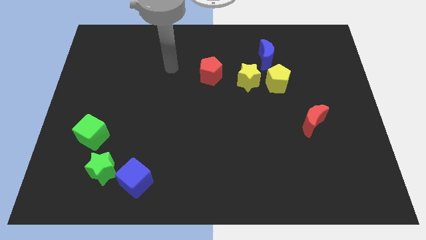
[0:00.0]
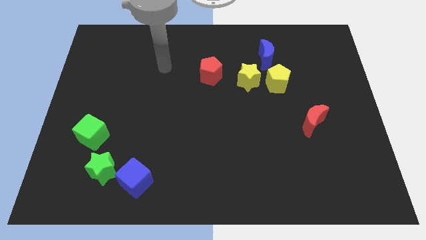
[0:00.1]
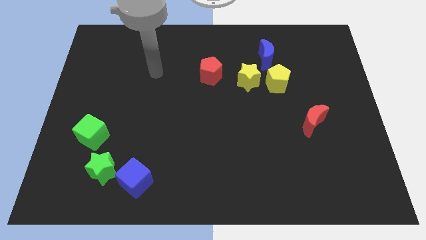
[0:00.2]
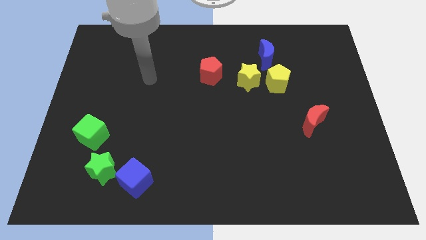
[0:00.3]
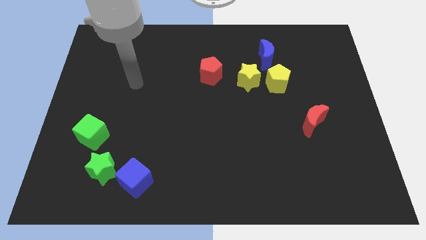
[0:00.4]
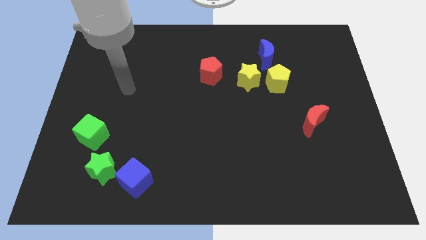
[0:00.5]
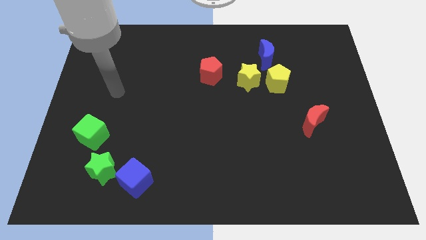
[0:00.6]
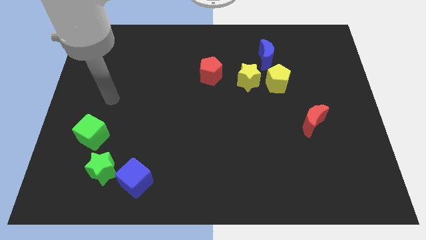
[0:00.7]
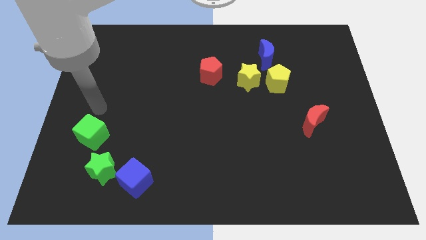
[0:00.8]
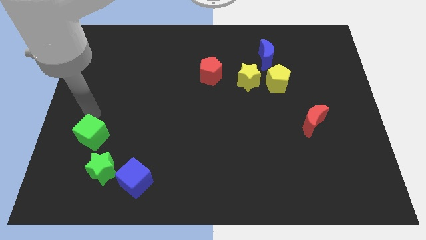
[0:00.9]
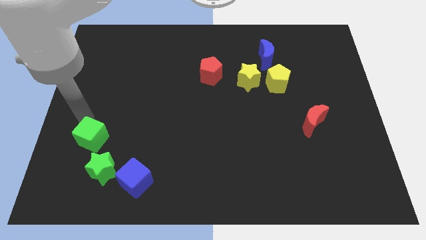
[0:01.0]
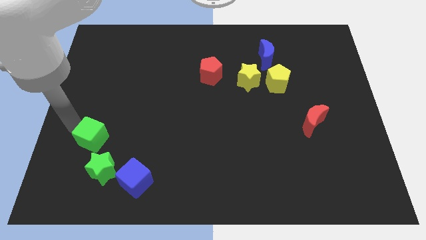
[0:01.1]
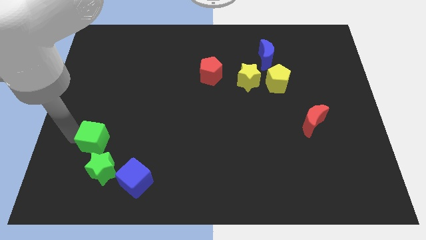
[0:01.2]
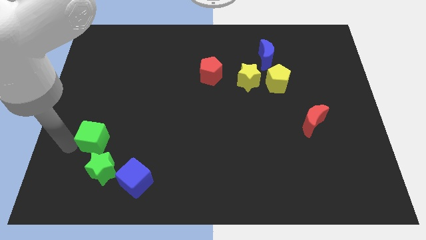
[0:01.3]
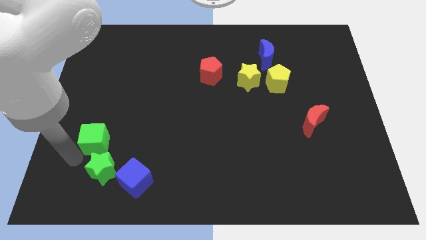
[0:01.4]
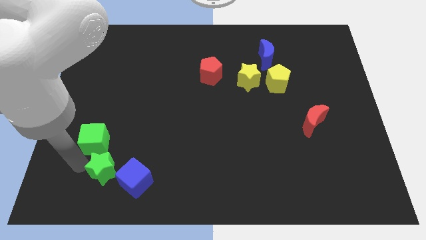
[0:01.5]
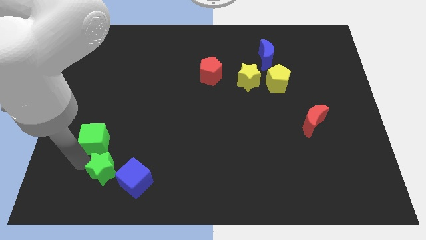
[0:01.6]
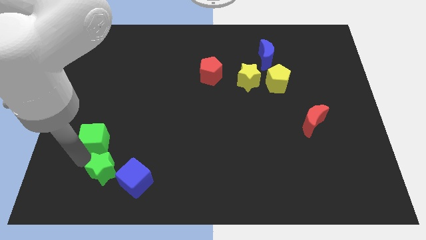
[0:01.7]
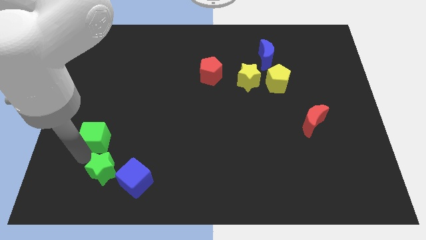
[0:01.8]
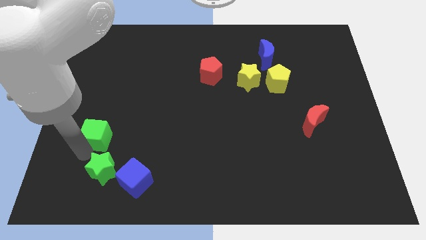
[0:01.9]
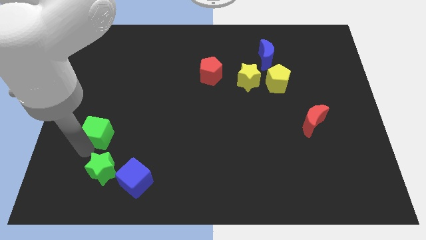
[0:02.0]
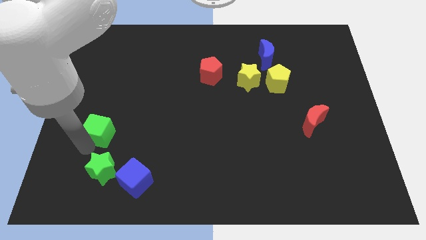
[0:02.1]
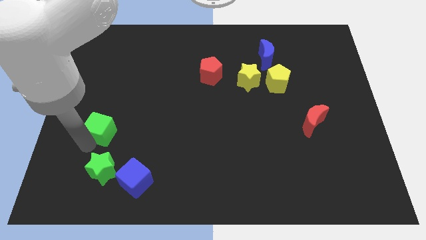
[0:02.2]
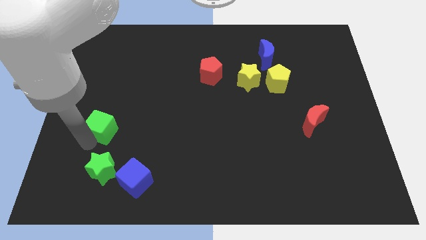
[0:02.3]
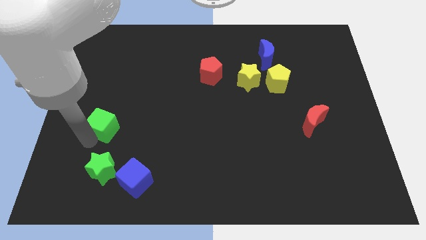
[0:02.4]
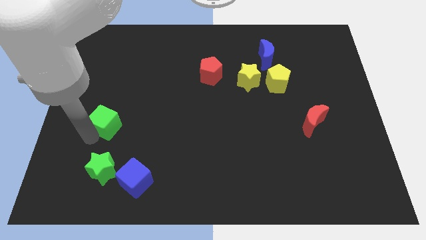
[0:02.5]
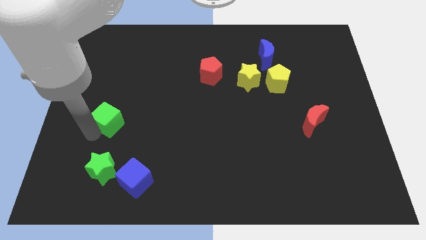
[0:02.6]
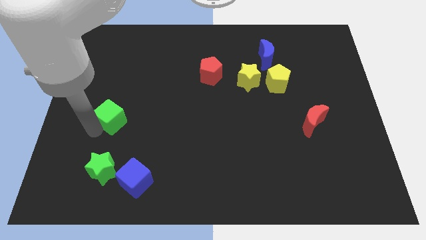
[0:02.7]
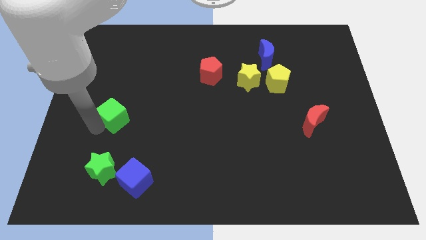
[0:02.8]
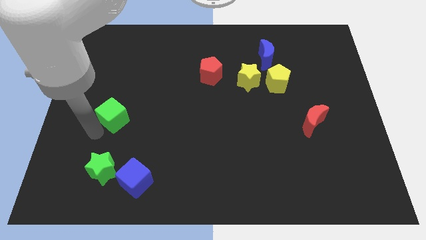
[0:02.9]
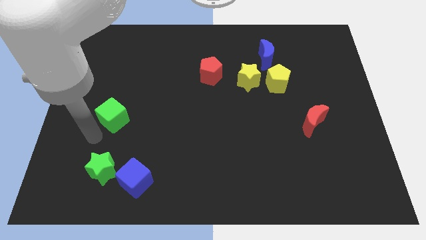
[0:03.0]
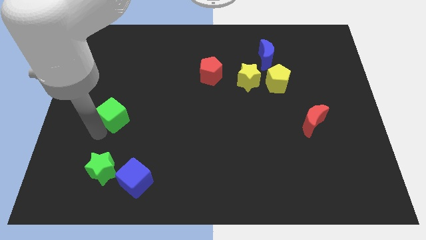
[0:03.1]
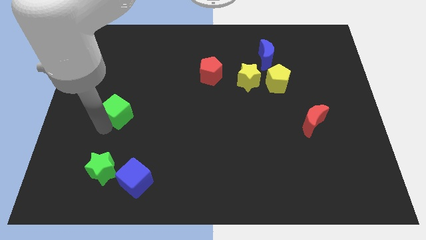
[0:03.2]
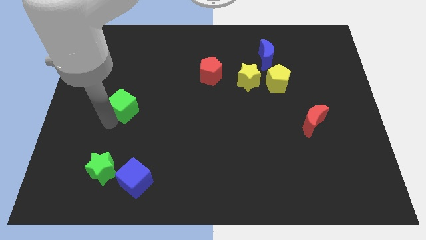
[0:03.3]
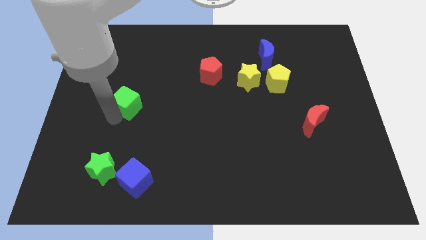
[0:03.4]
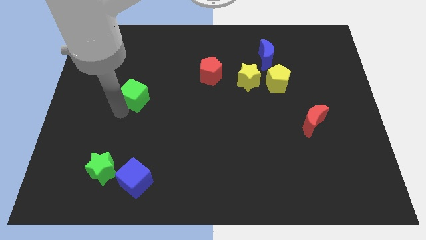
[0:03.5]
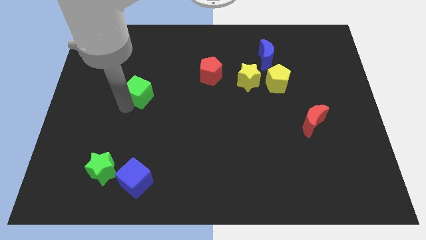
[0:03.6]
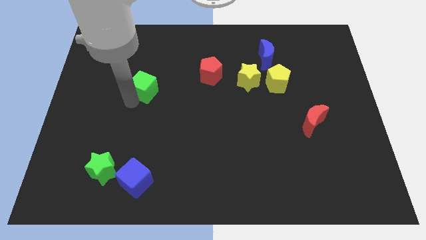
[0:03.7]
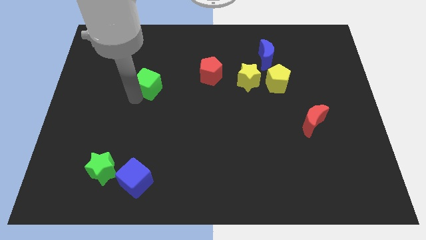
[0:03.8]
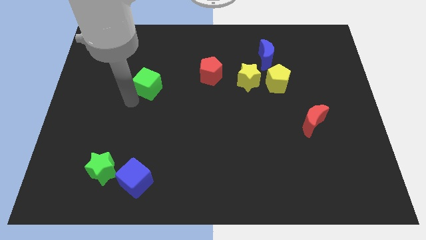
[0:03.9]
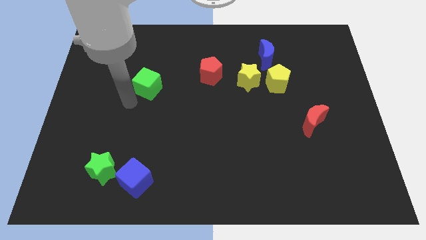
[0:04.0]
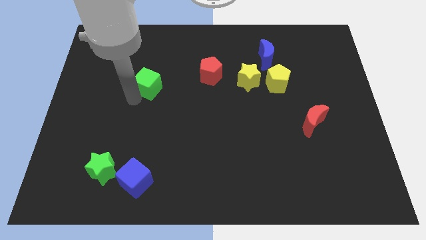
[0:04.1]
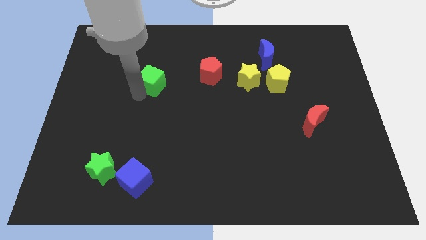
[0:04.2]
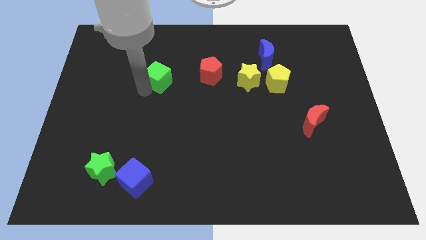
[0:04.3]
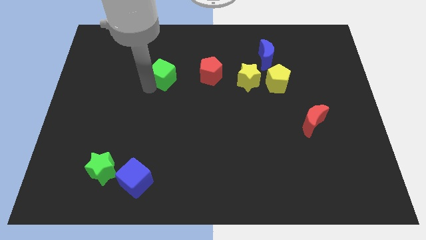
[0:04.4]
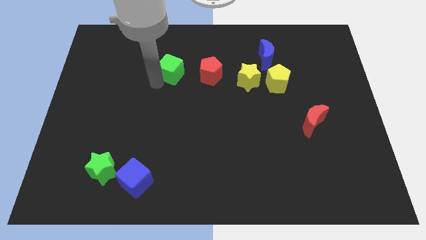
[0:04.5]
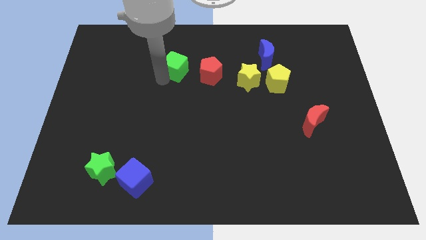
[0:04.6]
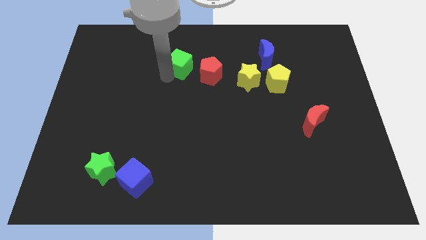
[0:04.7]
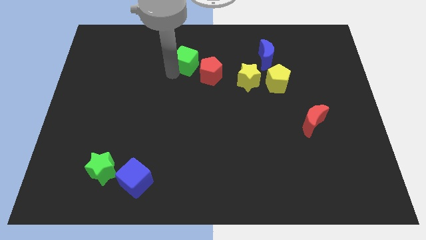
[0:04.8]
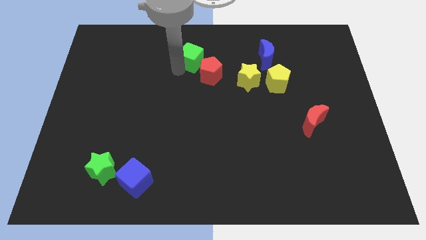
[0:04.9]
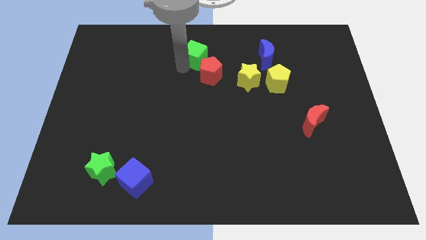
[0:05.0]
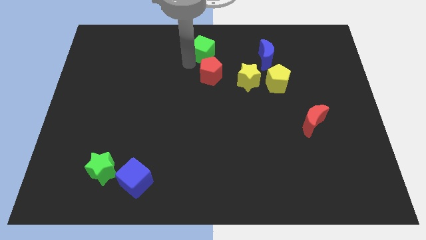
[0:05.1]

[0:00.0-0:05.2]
push the green cube to the top

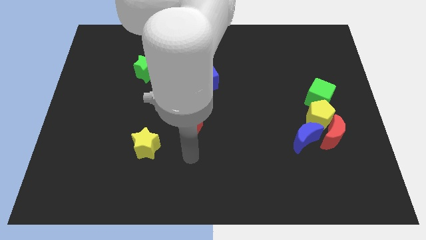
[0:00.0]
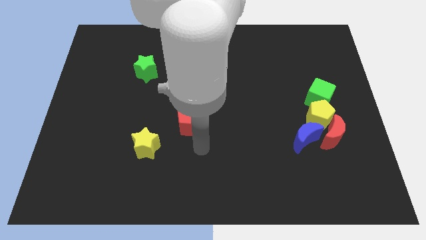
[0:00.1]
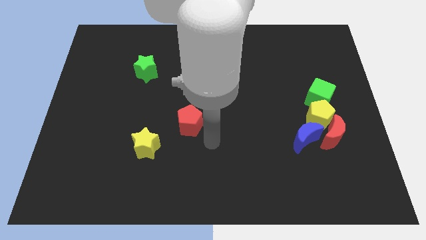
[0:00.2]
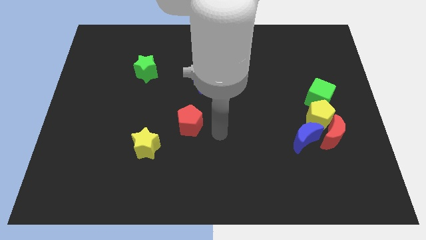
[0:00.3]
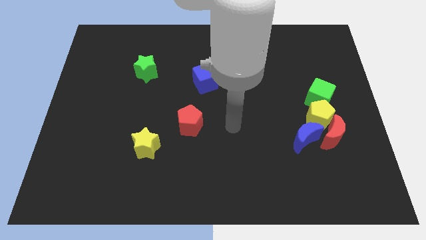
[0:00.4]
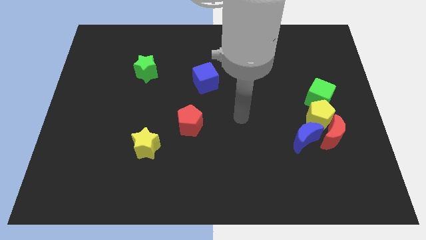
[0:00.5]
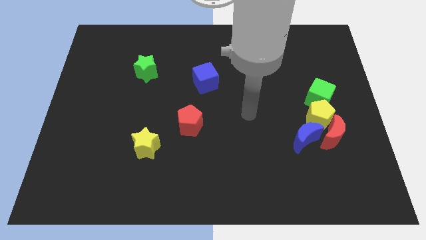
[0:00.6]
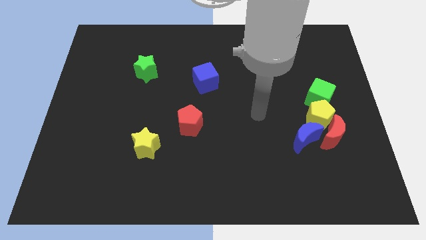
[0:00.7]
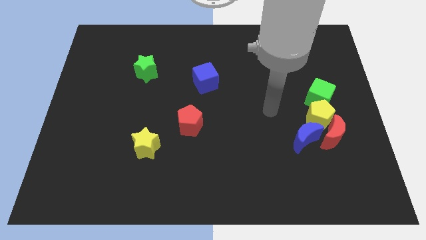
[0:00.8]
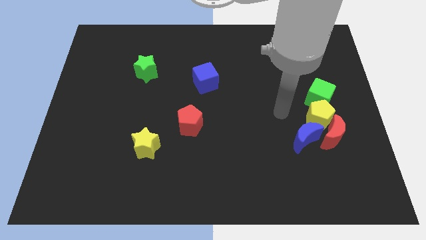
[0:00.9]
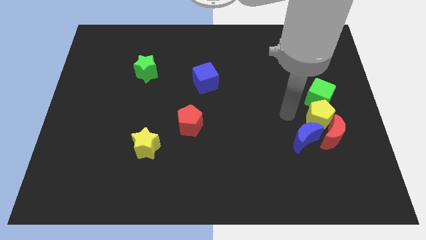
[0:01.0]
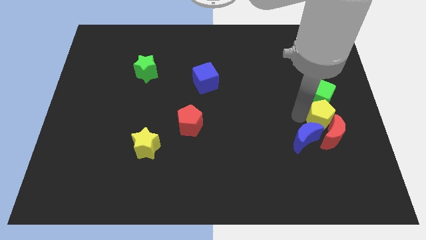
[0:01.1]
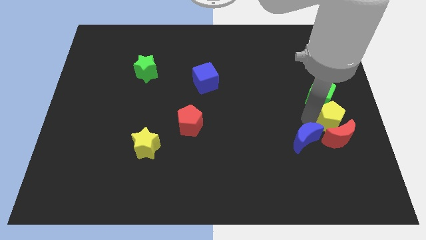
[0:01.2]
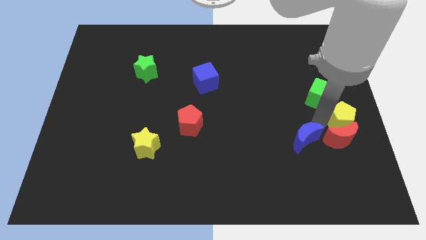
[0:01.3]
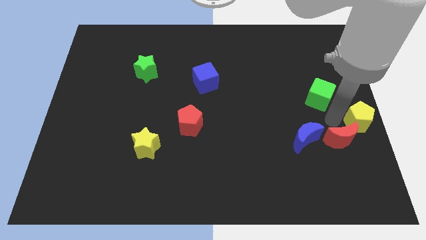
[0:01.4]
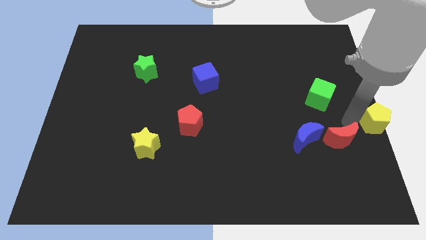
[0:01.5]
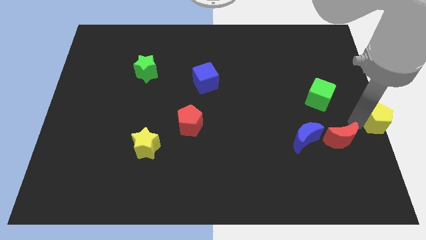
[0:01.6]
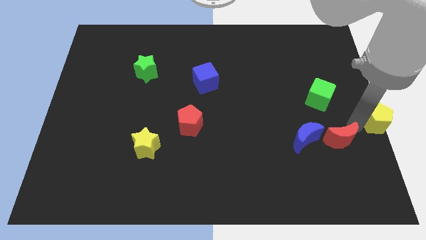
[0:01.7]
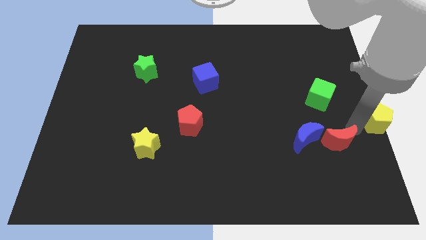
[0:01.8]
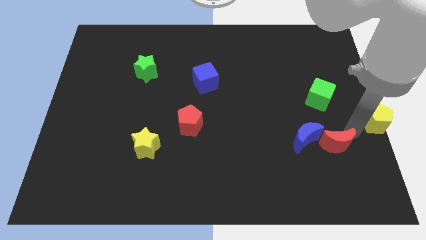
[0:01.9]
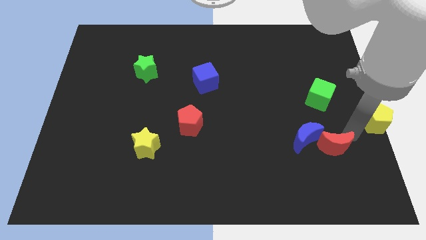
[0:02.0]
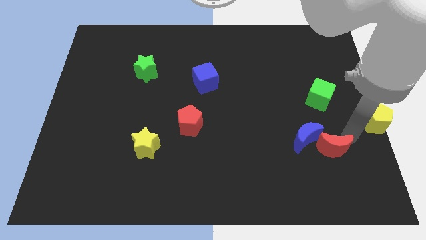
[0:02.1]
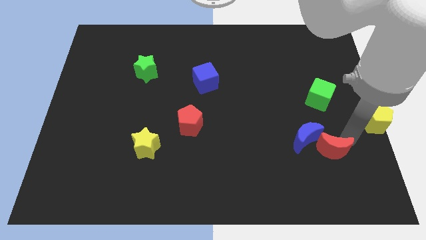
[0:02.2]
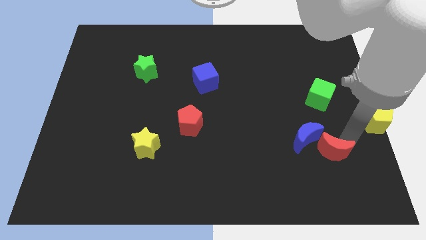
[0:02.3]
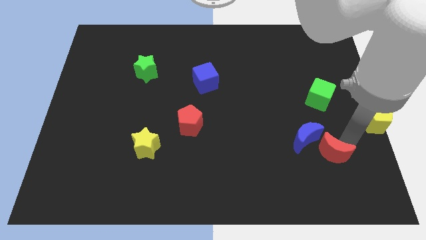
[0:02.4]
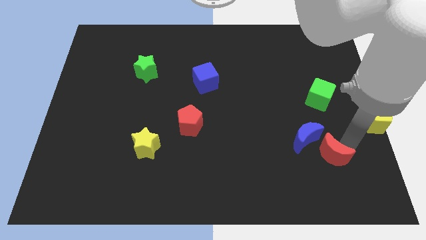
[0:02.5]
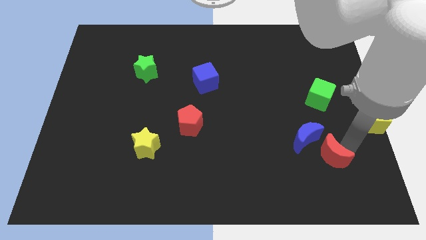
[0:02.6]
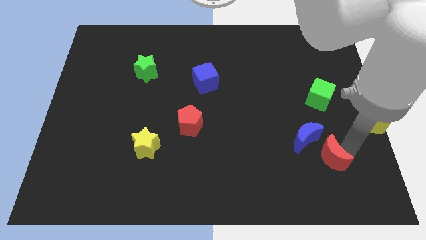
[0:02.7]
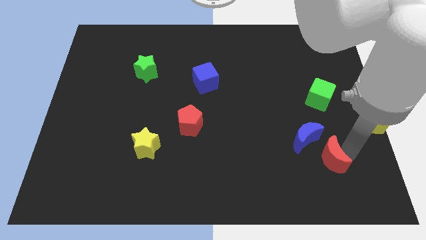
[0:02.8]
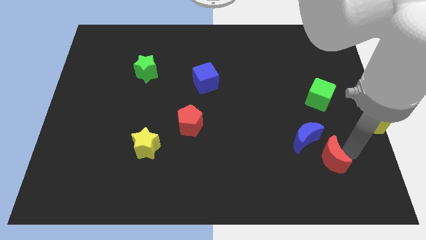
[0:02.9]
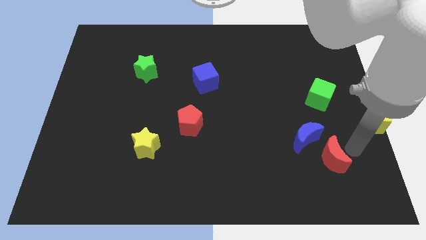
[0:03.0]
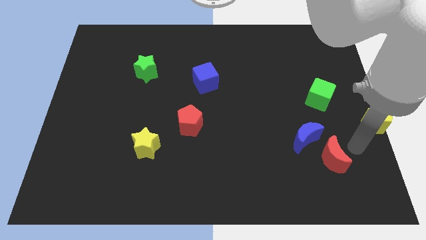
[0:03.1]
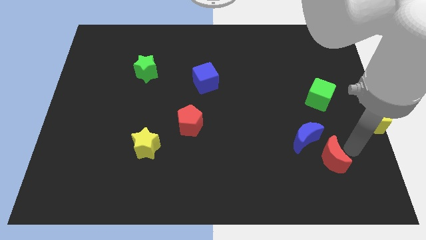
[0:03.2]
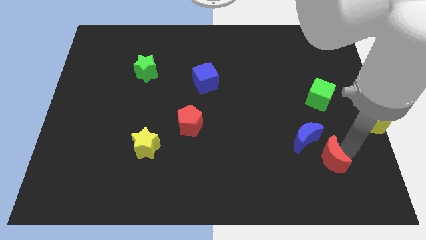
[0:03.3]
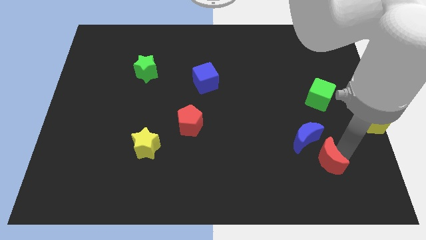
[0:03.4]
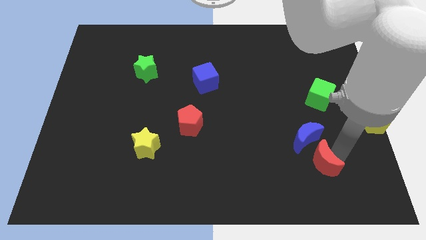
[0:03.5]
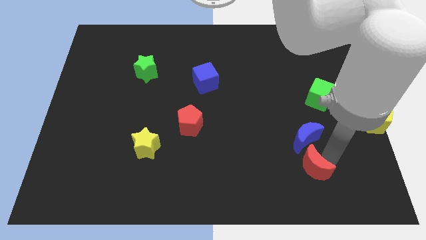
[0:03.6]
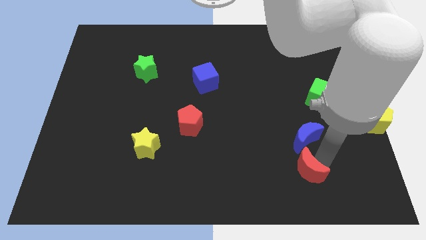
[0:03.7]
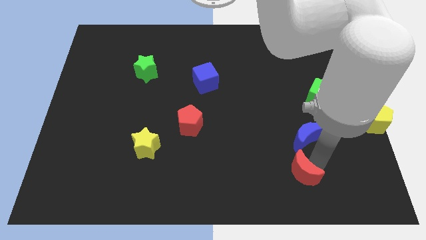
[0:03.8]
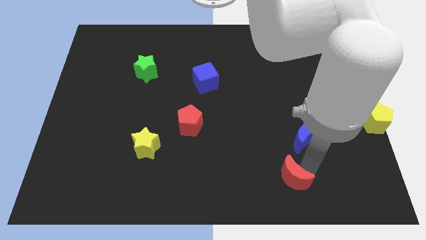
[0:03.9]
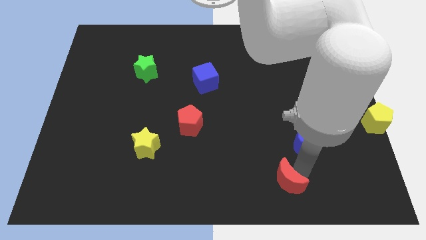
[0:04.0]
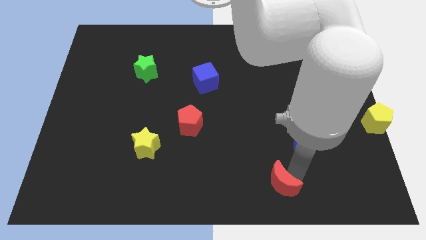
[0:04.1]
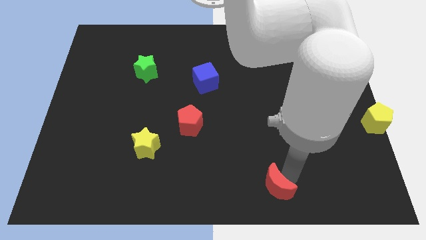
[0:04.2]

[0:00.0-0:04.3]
put the red moon to the bottom
